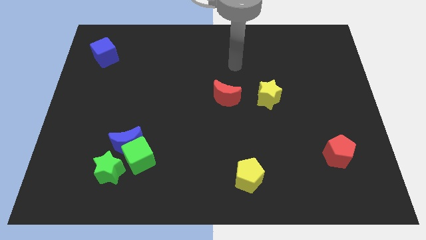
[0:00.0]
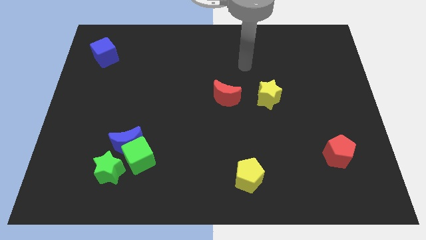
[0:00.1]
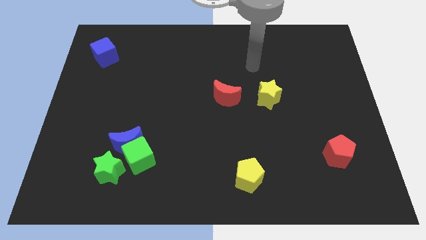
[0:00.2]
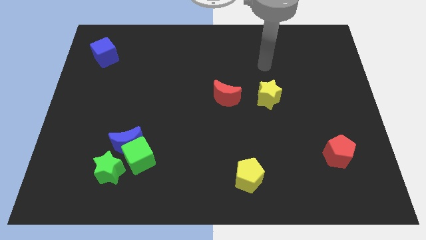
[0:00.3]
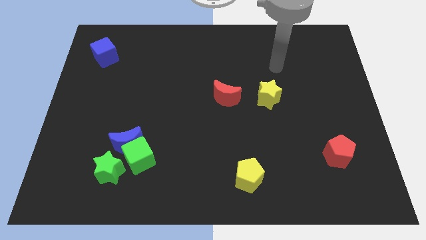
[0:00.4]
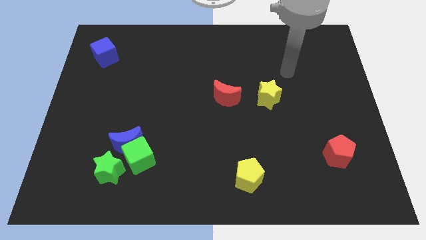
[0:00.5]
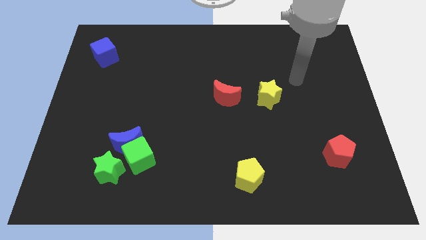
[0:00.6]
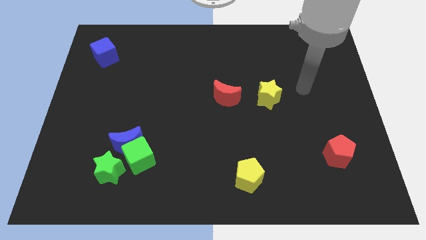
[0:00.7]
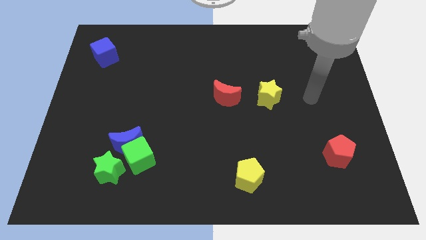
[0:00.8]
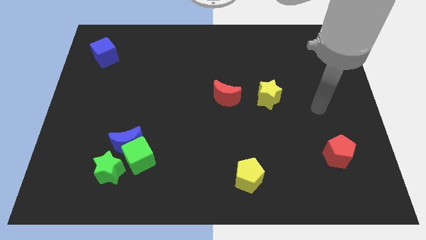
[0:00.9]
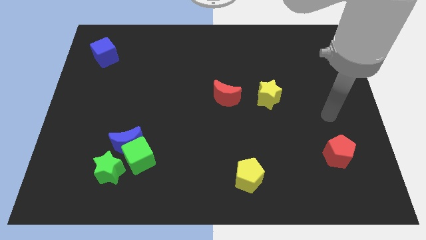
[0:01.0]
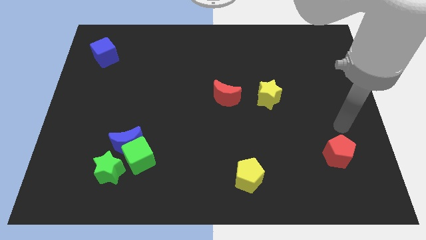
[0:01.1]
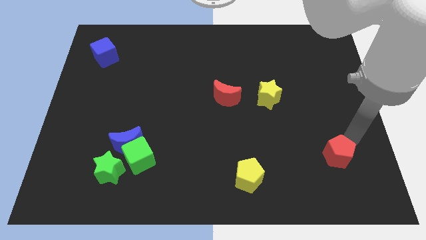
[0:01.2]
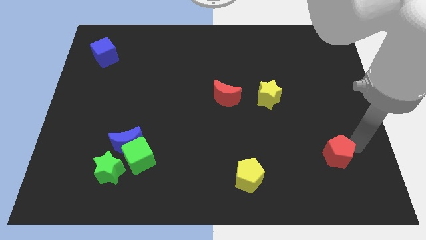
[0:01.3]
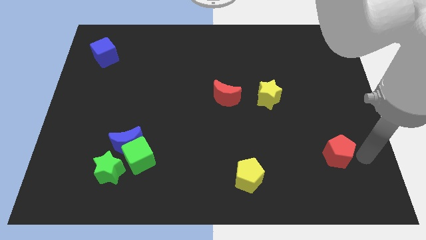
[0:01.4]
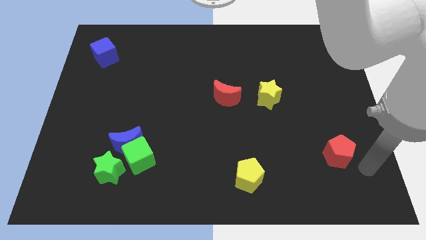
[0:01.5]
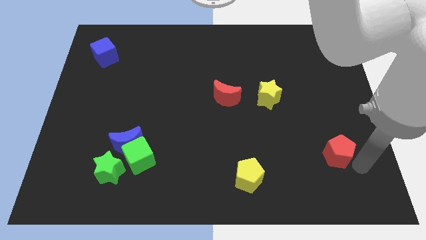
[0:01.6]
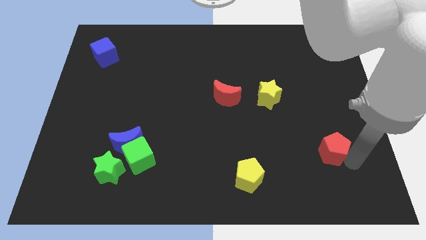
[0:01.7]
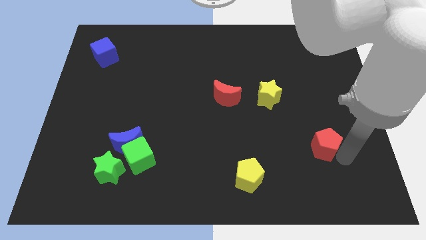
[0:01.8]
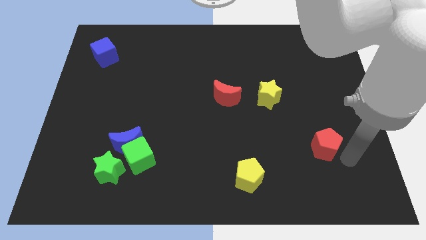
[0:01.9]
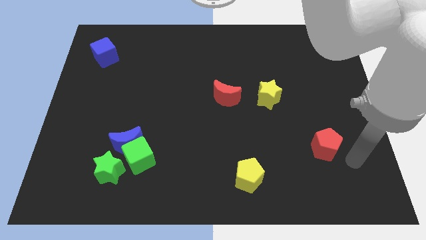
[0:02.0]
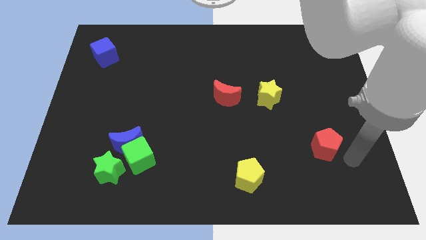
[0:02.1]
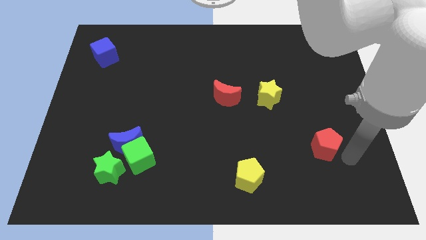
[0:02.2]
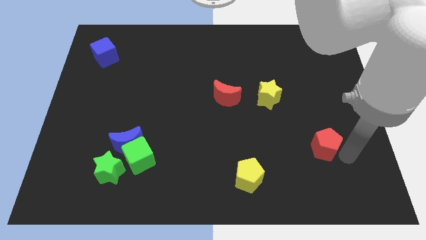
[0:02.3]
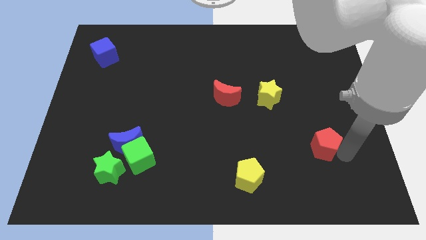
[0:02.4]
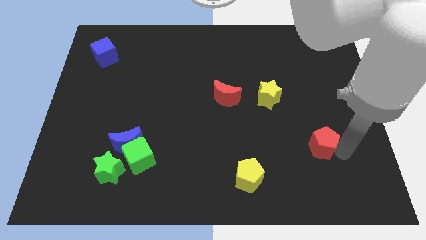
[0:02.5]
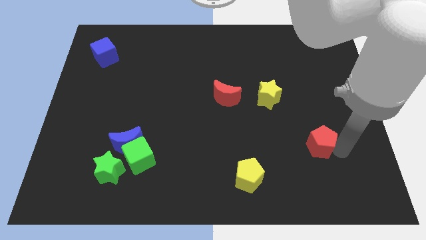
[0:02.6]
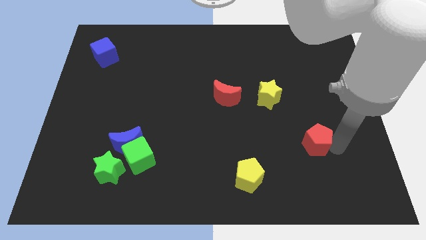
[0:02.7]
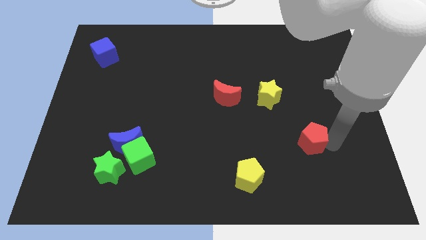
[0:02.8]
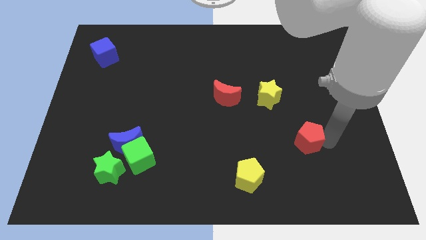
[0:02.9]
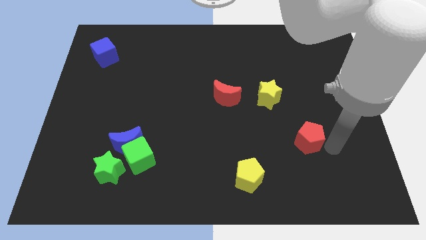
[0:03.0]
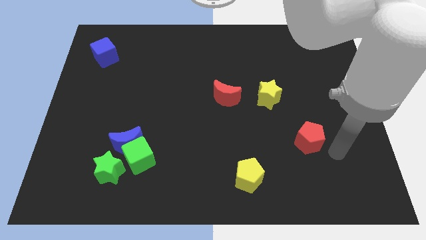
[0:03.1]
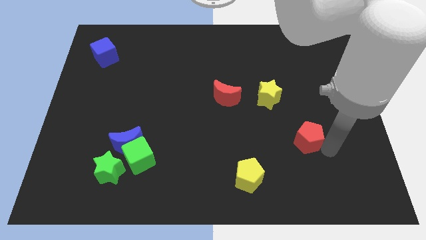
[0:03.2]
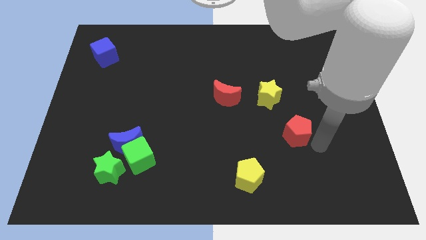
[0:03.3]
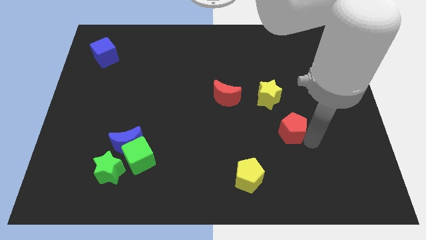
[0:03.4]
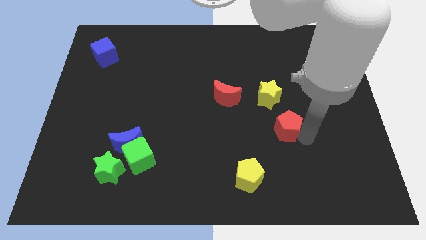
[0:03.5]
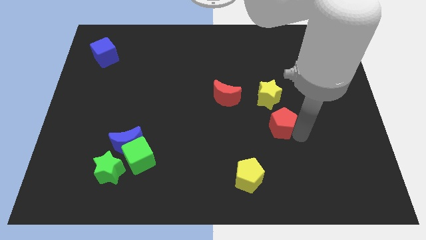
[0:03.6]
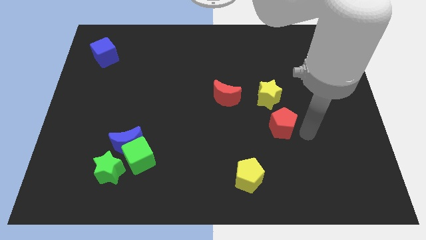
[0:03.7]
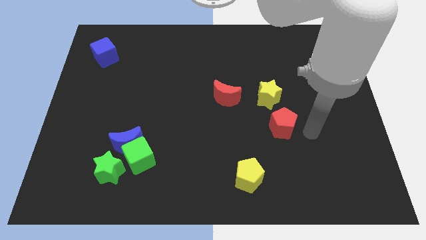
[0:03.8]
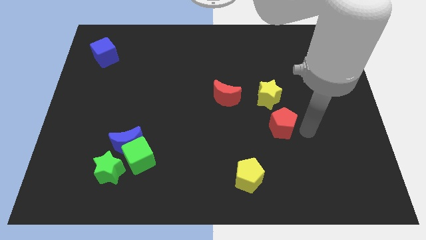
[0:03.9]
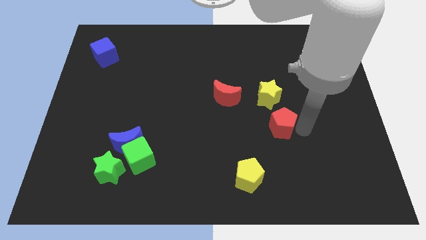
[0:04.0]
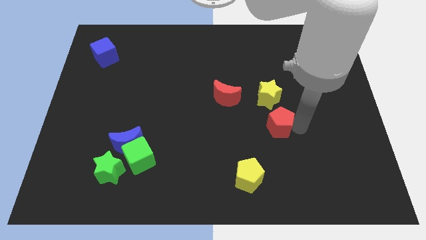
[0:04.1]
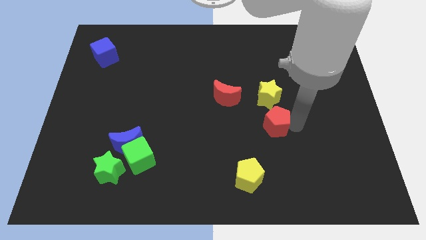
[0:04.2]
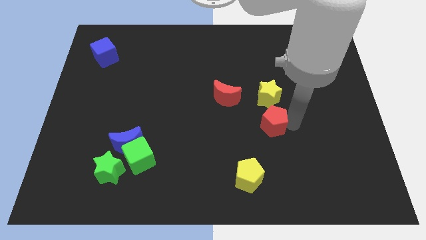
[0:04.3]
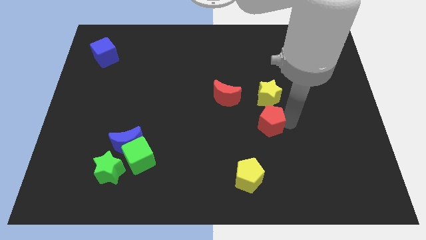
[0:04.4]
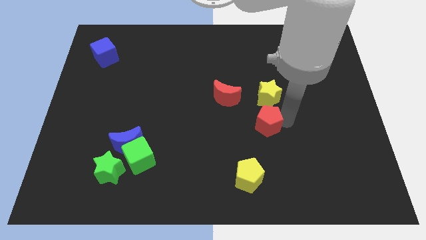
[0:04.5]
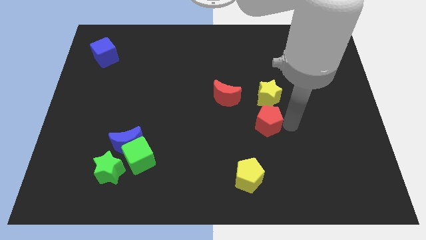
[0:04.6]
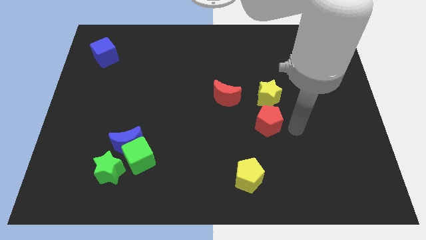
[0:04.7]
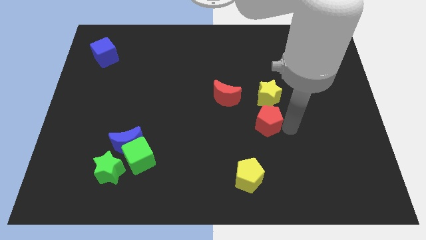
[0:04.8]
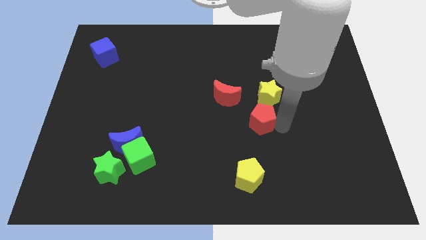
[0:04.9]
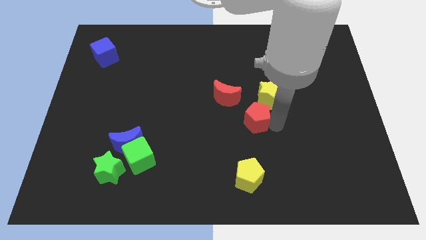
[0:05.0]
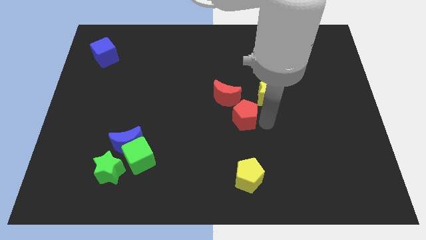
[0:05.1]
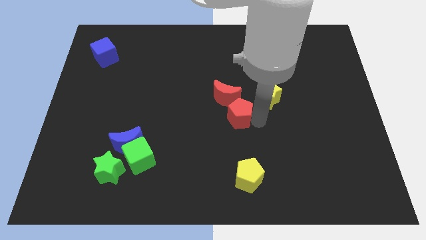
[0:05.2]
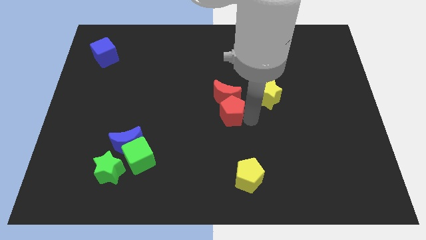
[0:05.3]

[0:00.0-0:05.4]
move the red pentagon to the left of the yellow star

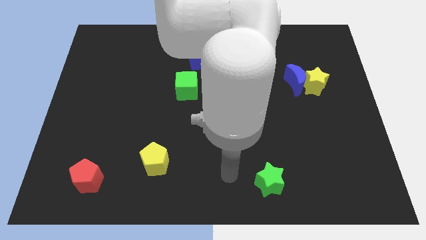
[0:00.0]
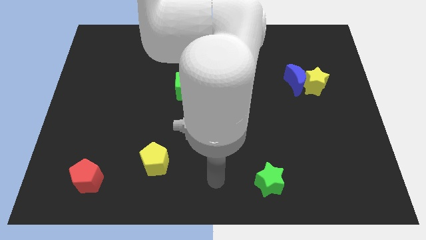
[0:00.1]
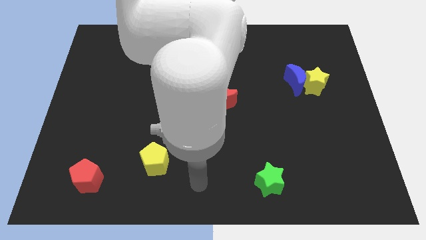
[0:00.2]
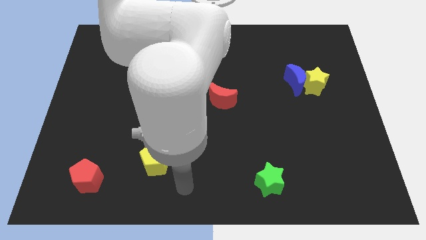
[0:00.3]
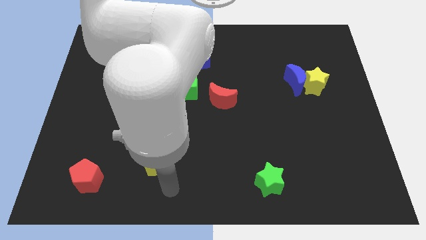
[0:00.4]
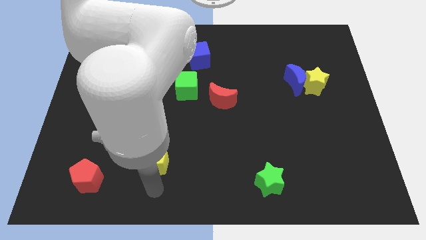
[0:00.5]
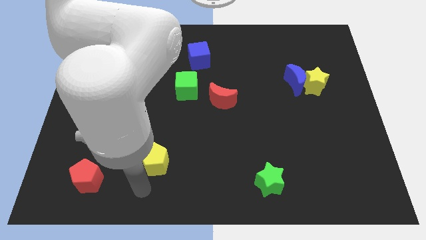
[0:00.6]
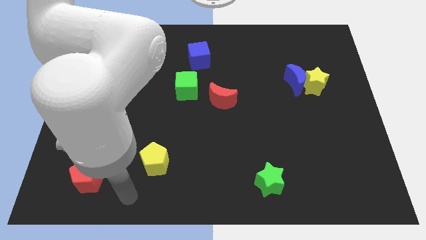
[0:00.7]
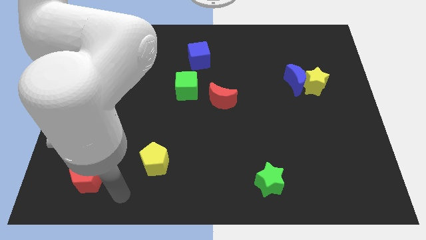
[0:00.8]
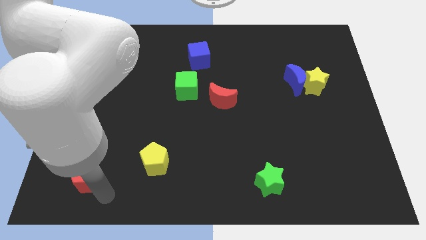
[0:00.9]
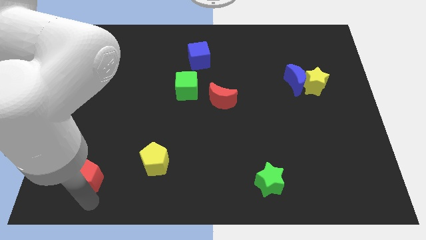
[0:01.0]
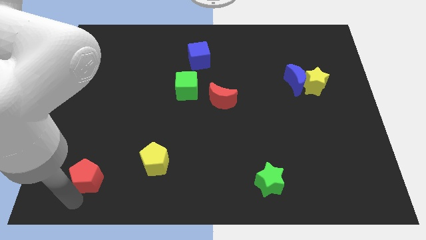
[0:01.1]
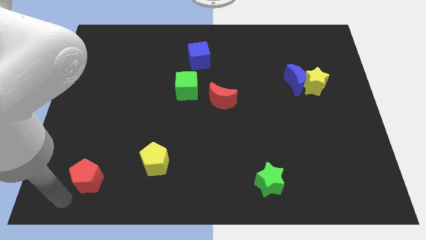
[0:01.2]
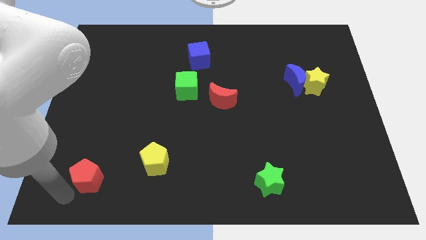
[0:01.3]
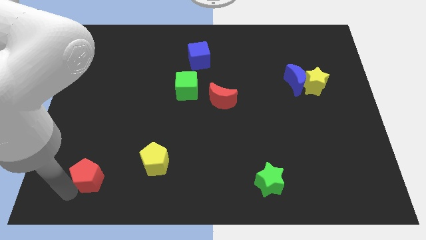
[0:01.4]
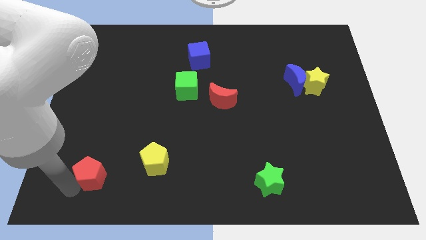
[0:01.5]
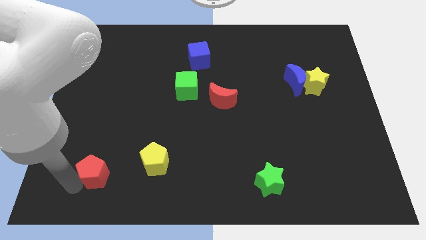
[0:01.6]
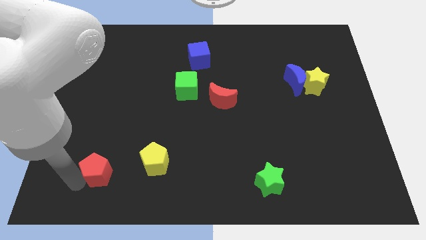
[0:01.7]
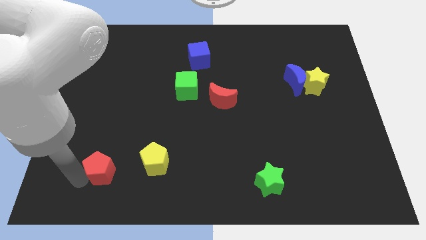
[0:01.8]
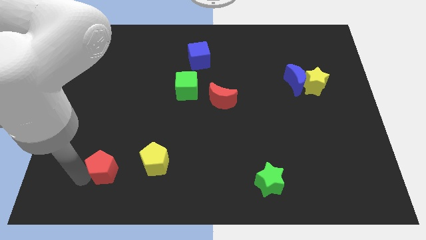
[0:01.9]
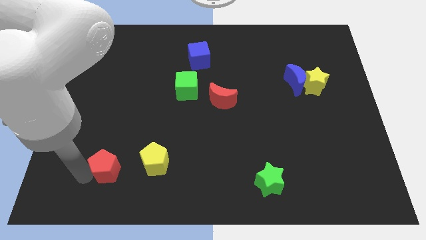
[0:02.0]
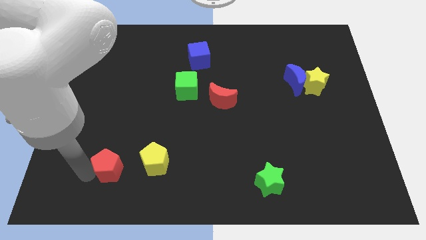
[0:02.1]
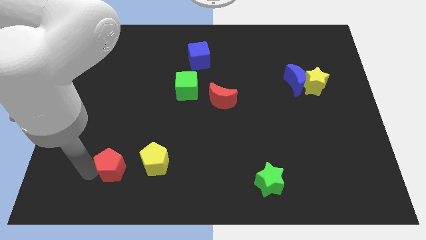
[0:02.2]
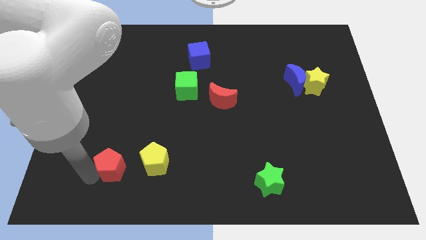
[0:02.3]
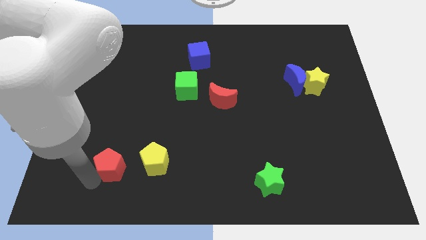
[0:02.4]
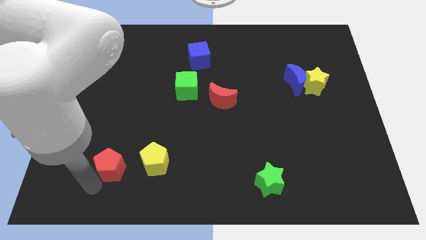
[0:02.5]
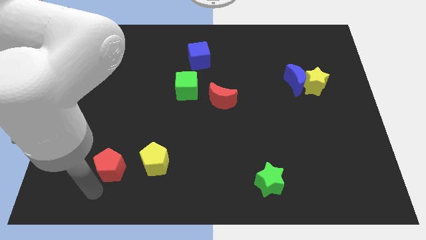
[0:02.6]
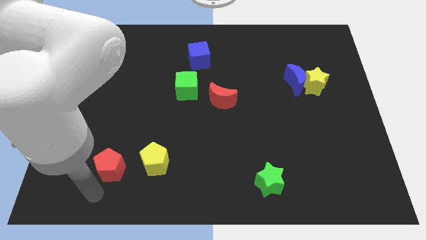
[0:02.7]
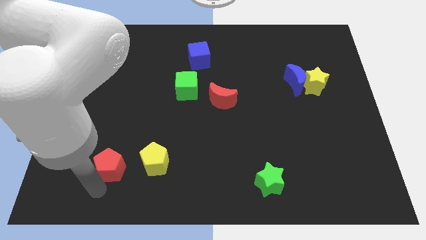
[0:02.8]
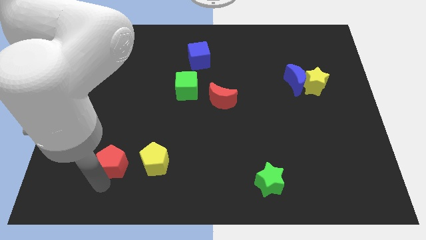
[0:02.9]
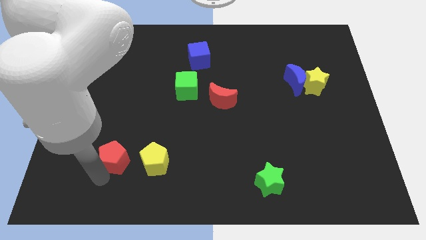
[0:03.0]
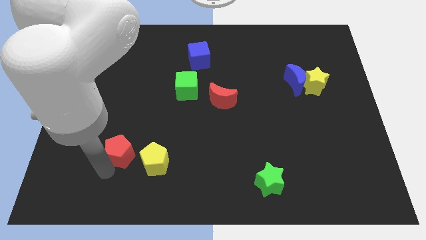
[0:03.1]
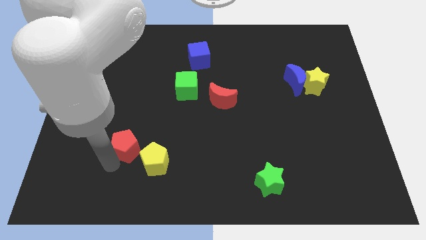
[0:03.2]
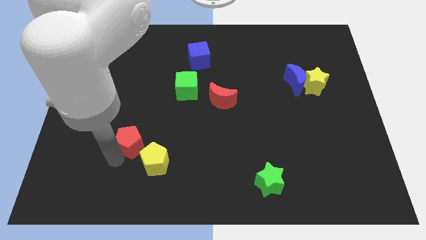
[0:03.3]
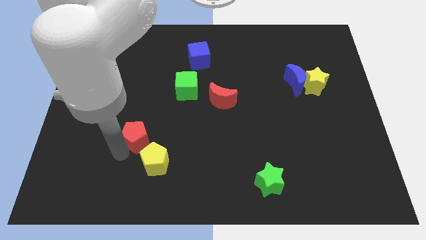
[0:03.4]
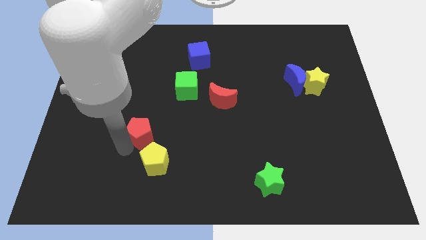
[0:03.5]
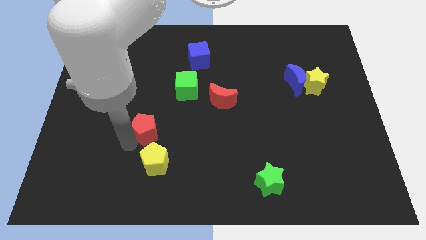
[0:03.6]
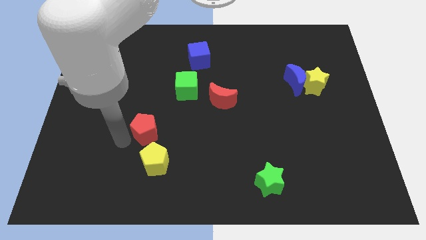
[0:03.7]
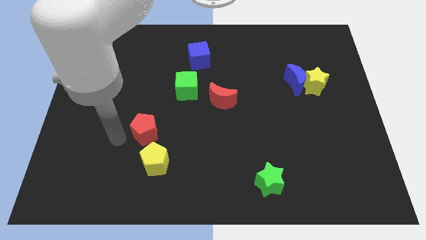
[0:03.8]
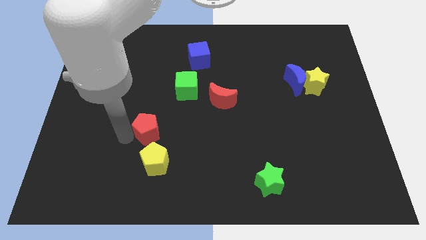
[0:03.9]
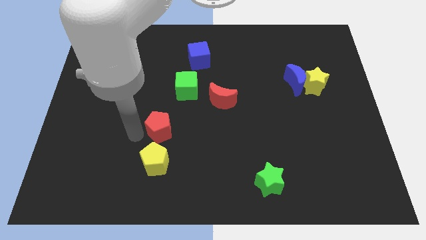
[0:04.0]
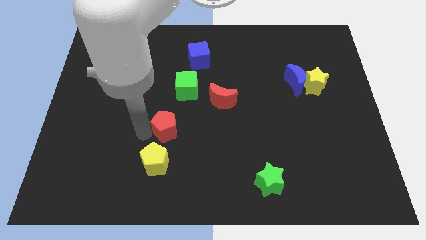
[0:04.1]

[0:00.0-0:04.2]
slide the red pentagon to the bottom side of the green cube
